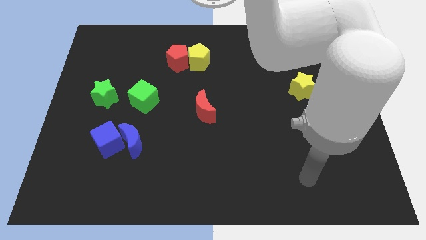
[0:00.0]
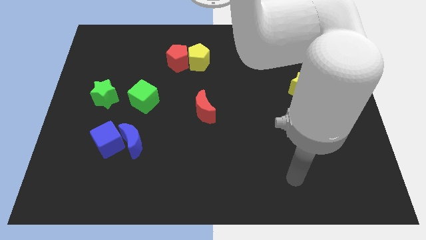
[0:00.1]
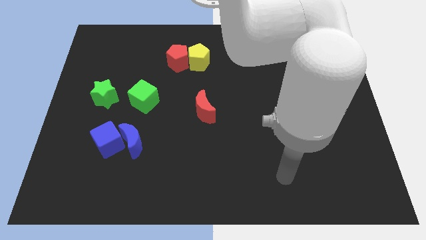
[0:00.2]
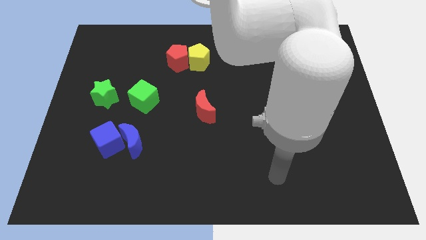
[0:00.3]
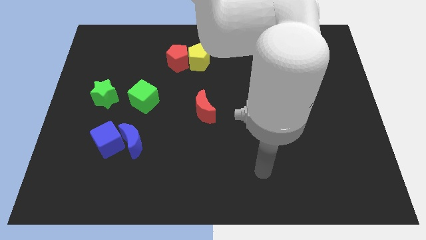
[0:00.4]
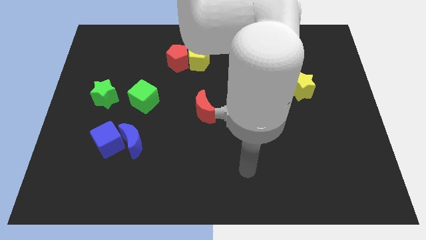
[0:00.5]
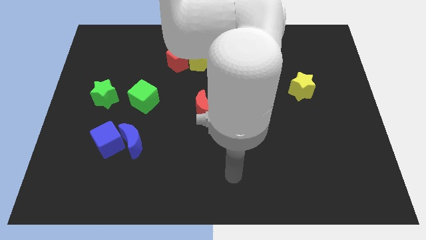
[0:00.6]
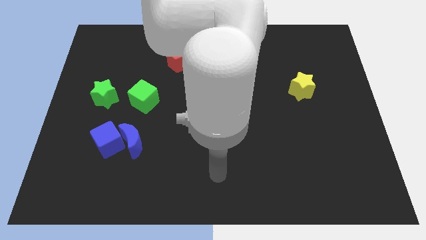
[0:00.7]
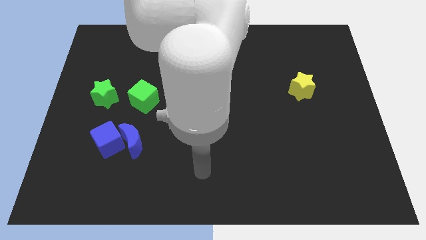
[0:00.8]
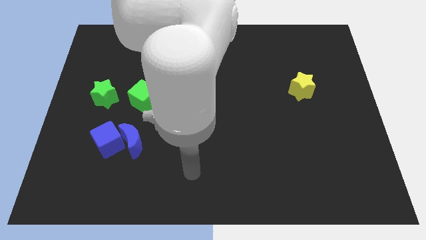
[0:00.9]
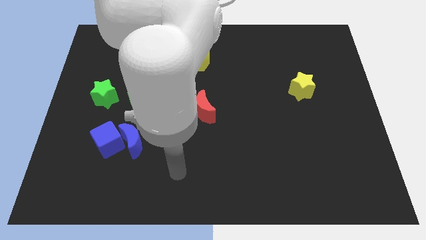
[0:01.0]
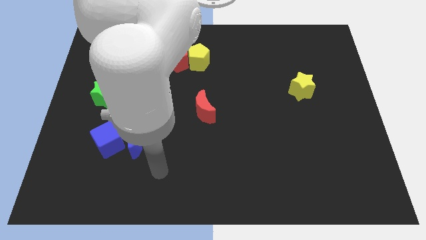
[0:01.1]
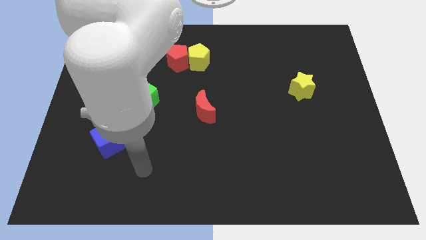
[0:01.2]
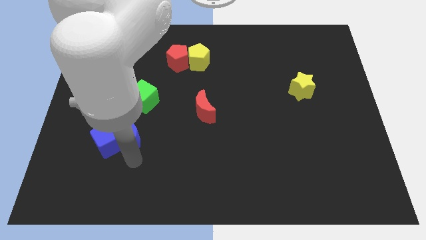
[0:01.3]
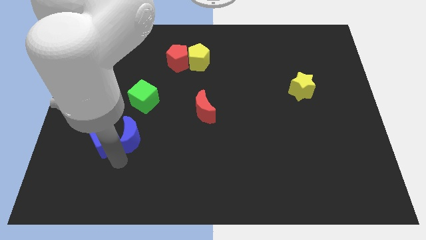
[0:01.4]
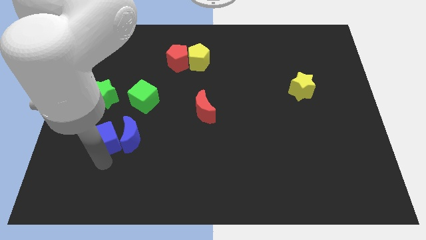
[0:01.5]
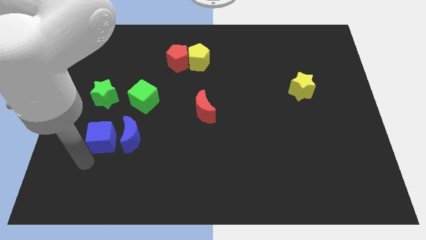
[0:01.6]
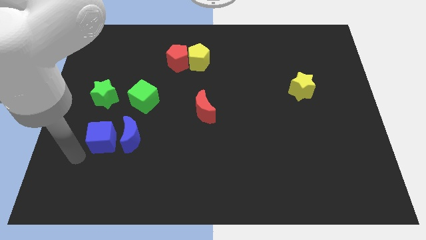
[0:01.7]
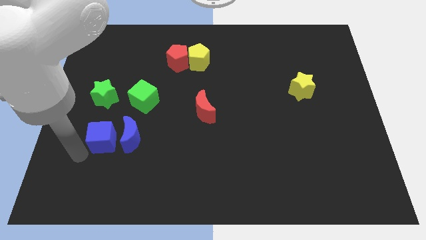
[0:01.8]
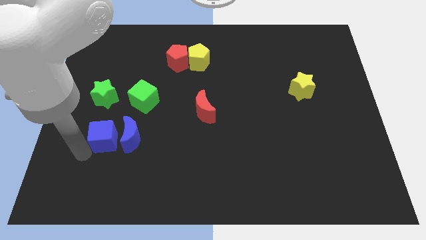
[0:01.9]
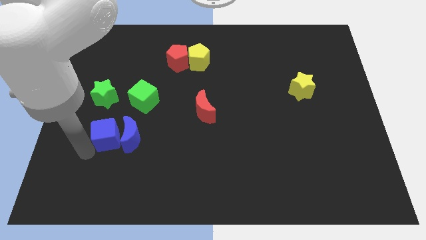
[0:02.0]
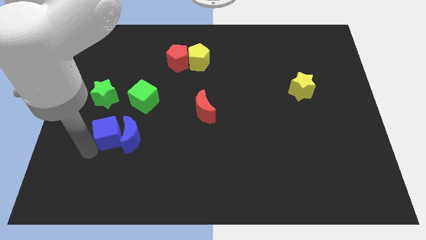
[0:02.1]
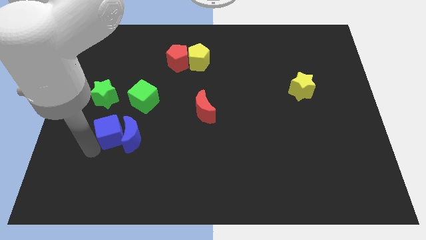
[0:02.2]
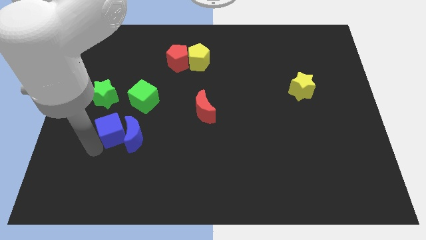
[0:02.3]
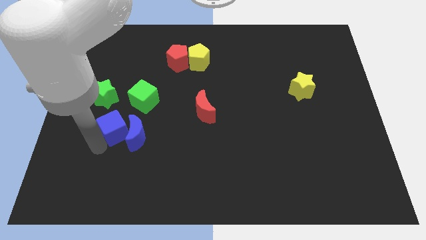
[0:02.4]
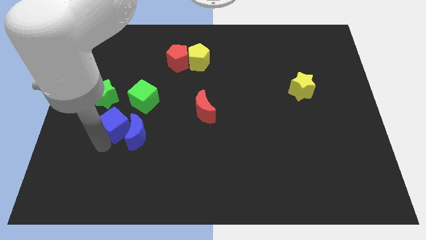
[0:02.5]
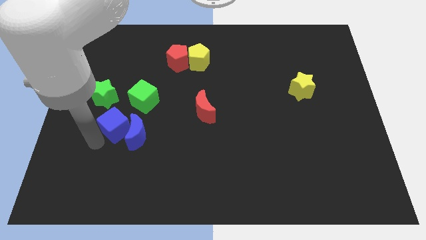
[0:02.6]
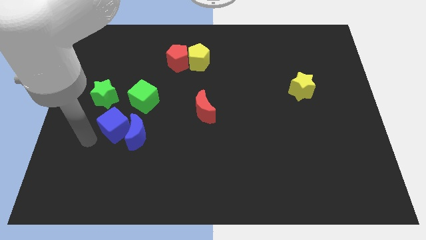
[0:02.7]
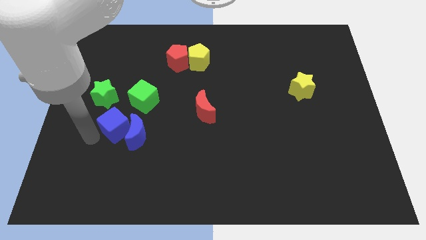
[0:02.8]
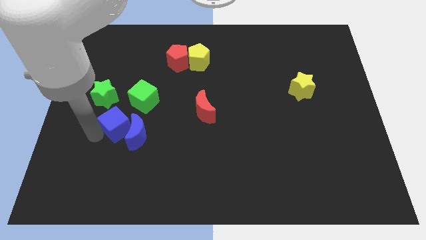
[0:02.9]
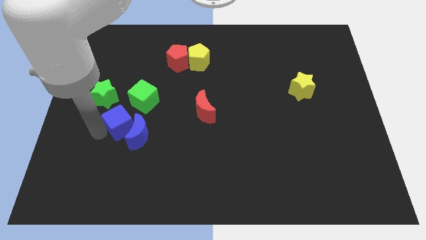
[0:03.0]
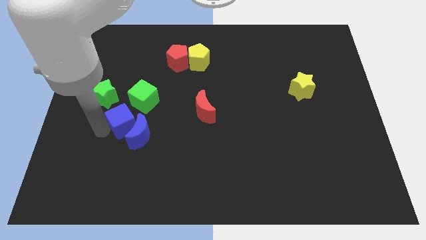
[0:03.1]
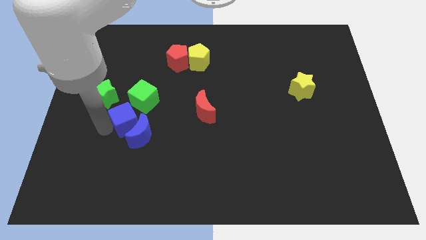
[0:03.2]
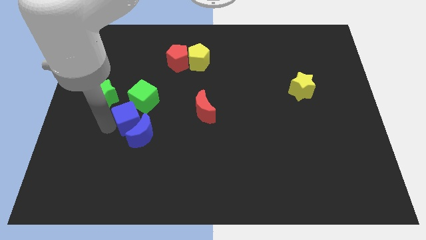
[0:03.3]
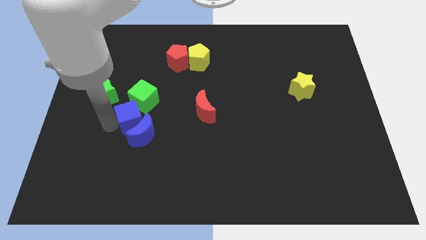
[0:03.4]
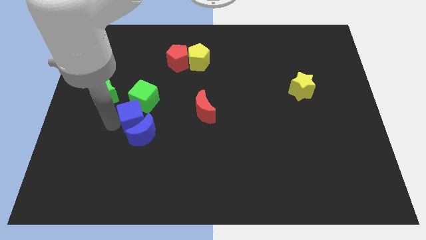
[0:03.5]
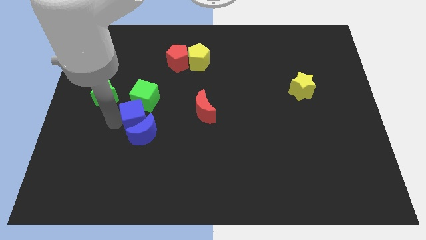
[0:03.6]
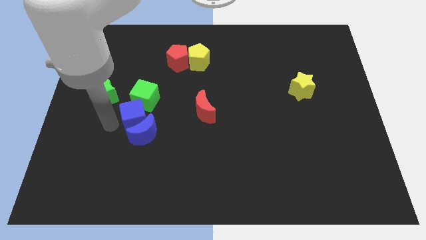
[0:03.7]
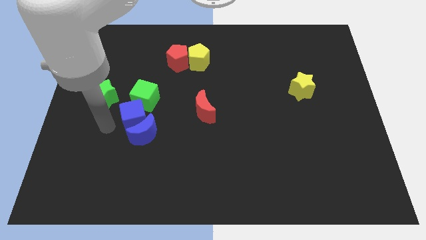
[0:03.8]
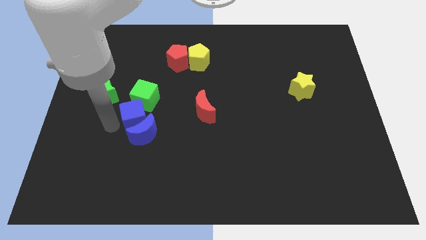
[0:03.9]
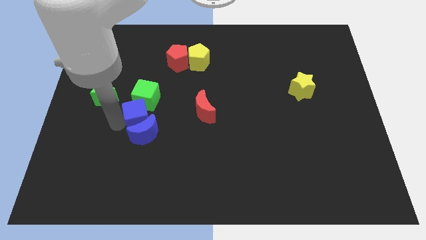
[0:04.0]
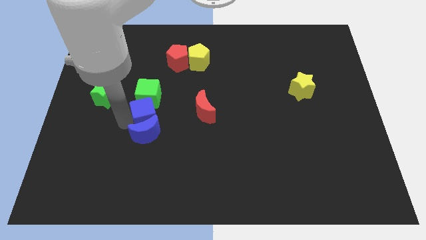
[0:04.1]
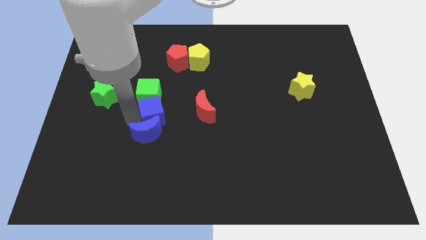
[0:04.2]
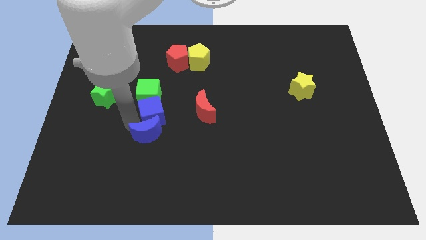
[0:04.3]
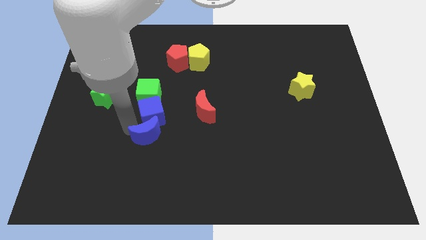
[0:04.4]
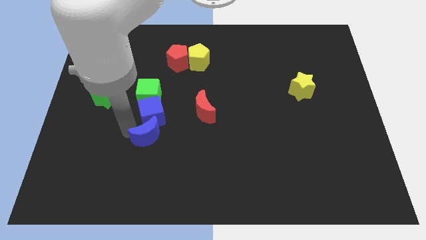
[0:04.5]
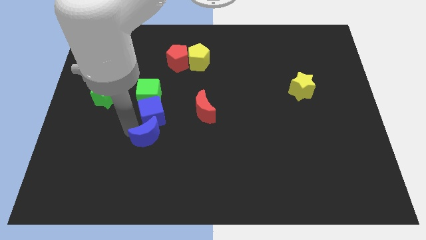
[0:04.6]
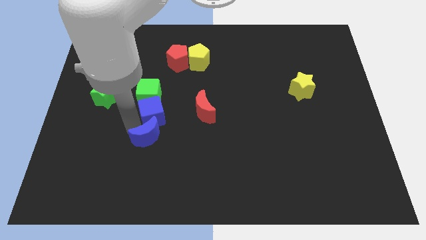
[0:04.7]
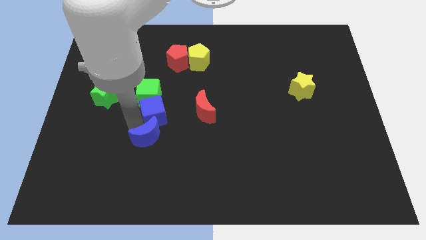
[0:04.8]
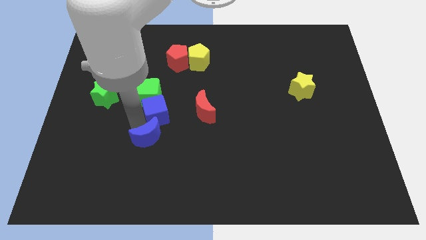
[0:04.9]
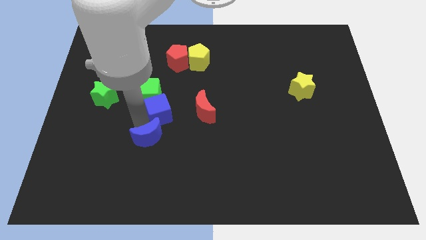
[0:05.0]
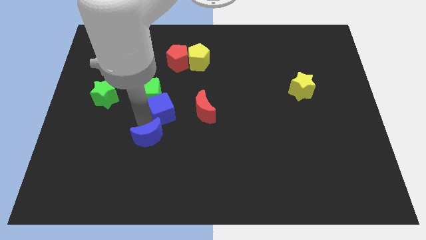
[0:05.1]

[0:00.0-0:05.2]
slide the blue cube to the middle of the board

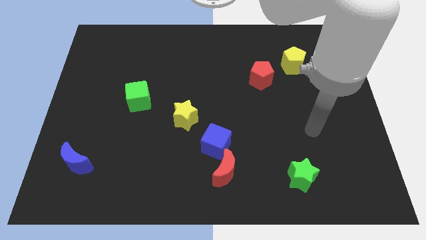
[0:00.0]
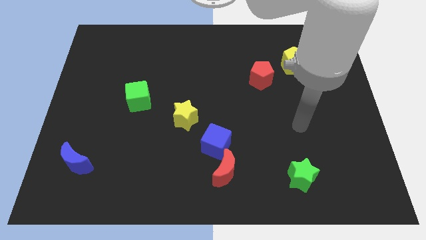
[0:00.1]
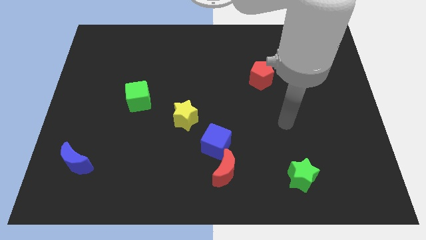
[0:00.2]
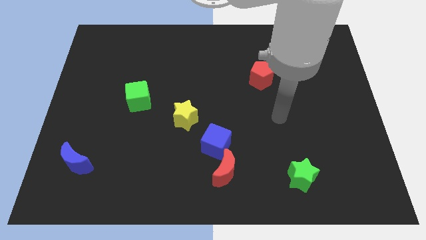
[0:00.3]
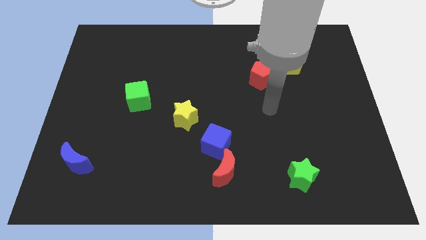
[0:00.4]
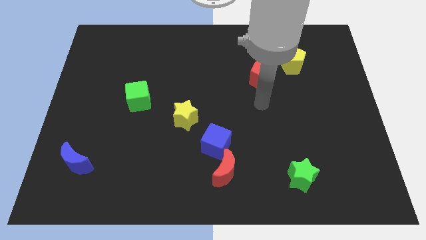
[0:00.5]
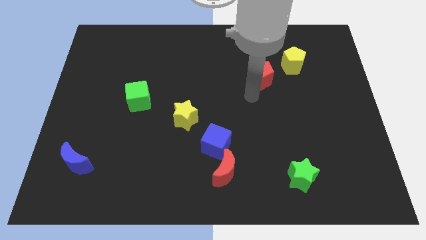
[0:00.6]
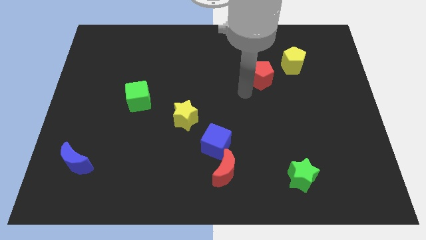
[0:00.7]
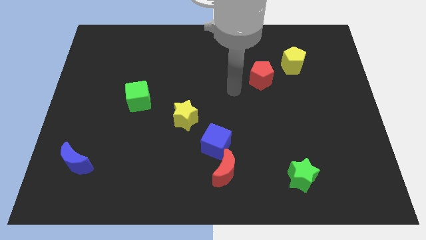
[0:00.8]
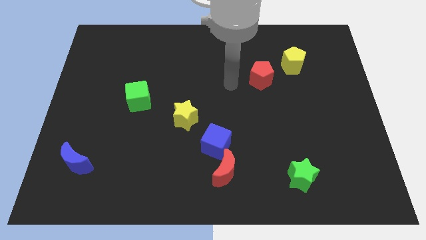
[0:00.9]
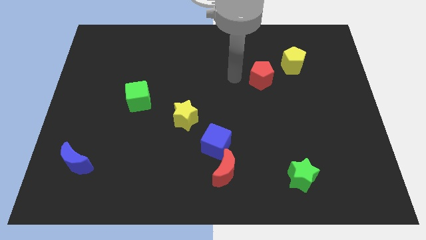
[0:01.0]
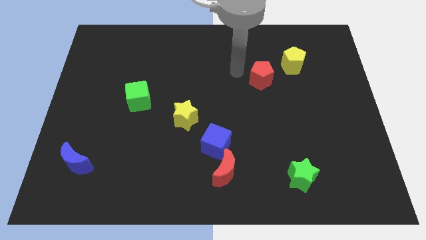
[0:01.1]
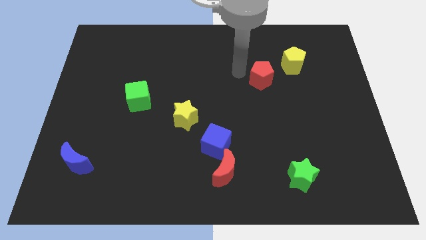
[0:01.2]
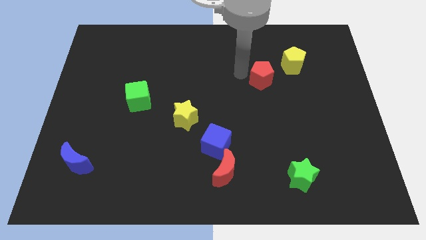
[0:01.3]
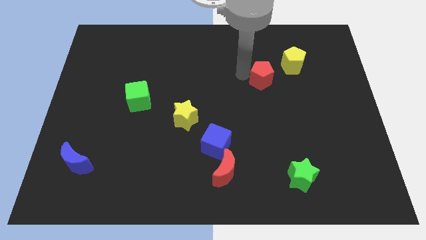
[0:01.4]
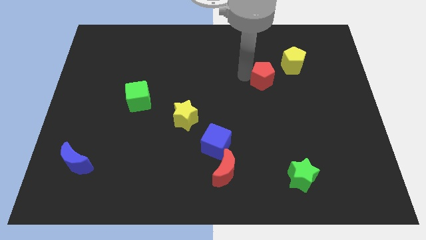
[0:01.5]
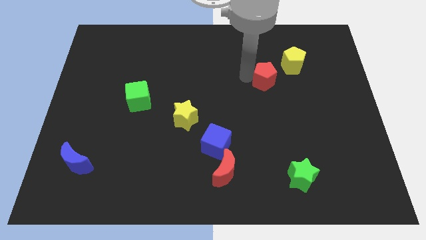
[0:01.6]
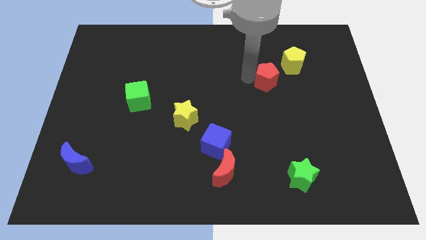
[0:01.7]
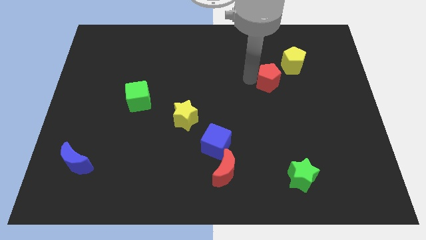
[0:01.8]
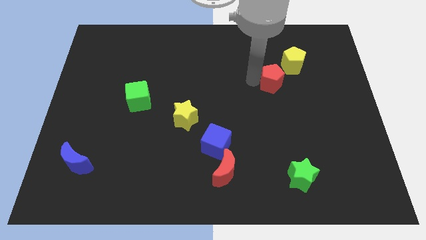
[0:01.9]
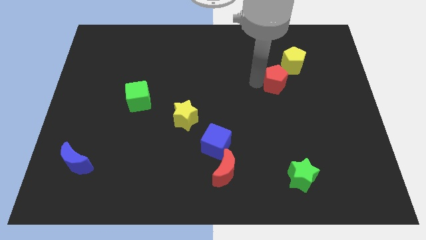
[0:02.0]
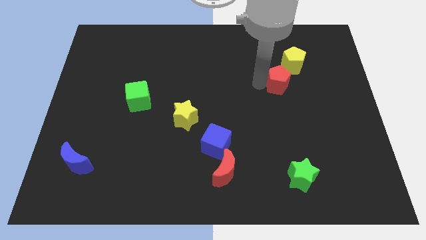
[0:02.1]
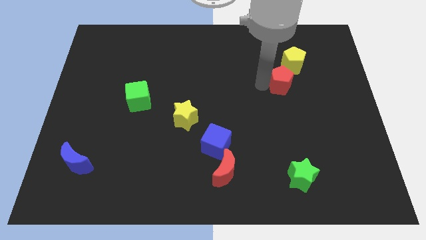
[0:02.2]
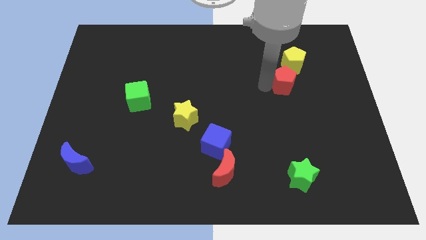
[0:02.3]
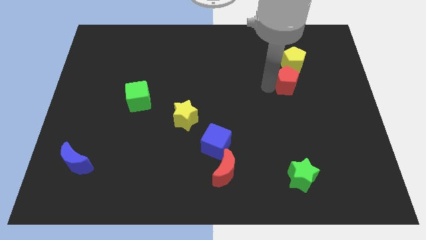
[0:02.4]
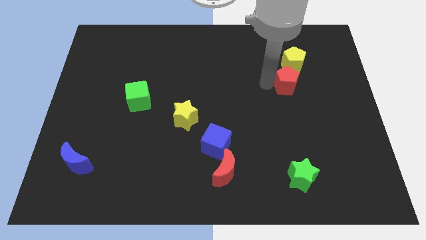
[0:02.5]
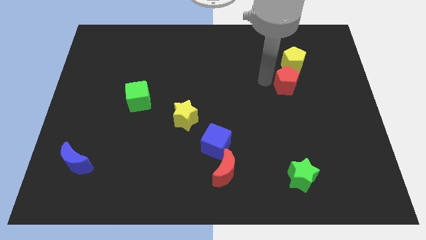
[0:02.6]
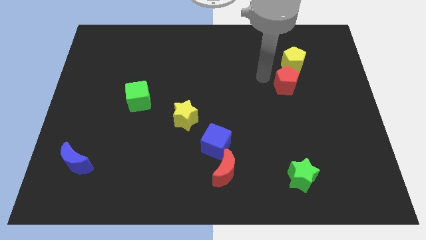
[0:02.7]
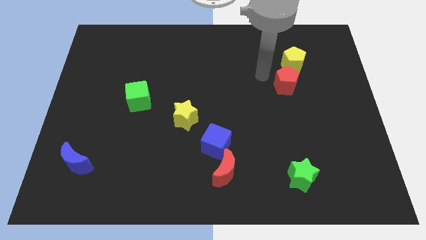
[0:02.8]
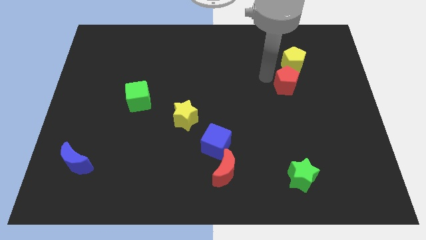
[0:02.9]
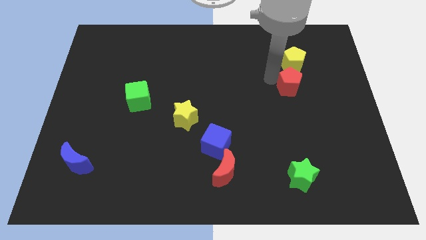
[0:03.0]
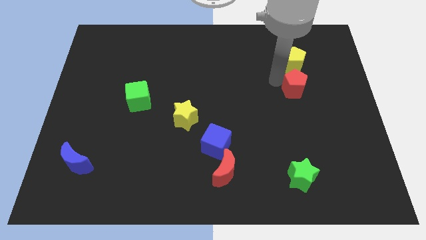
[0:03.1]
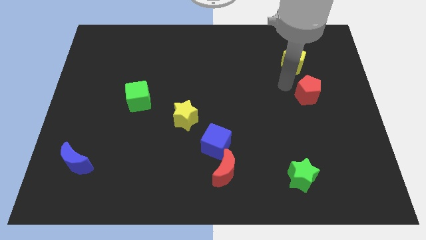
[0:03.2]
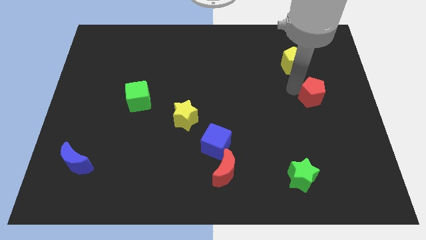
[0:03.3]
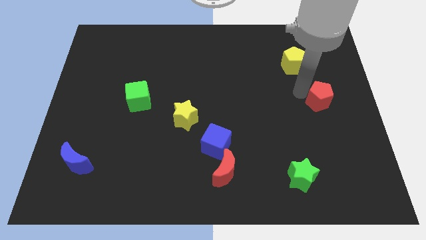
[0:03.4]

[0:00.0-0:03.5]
slide the red pentagon to the center right
